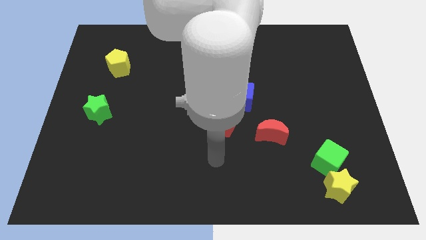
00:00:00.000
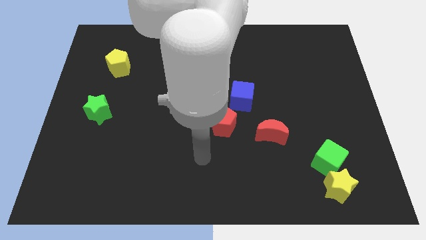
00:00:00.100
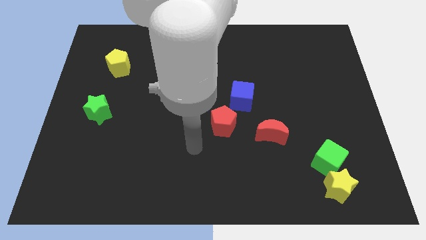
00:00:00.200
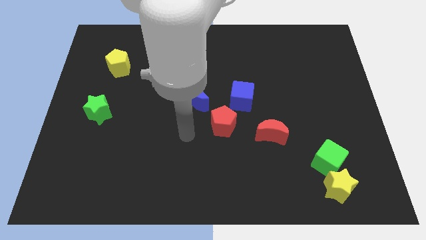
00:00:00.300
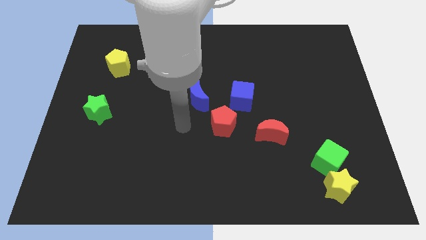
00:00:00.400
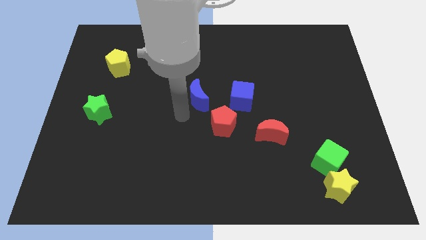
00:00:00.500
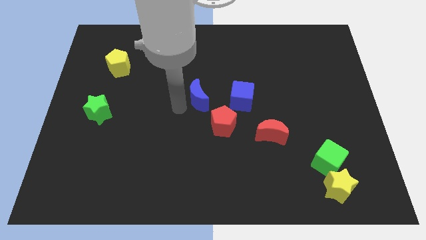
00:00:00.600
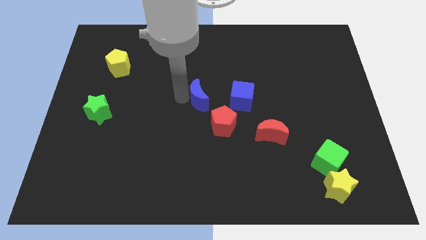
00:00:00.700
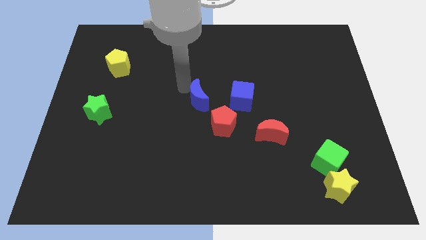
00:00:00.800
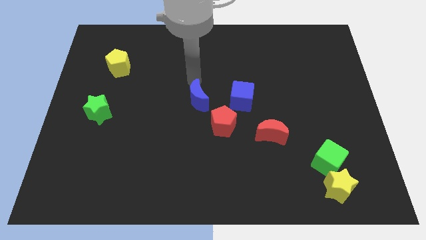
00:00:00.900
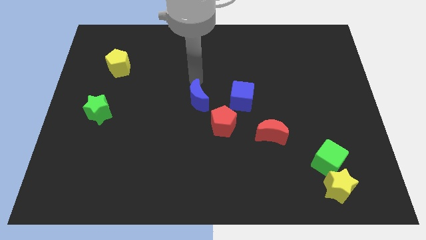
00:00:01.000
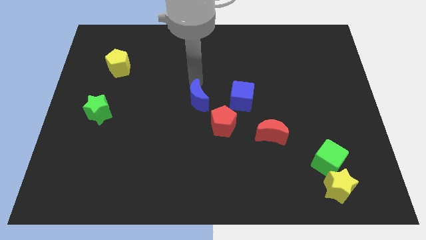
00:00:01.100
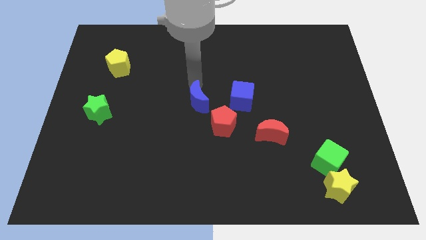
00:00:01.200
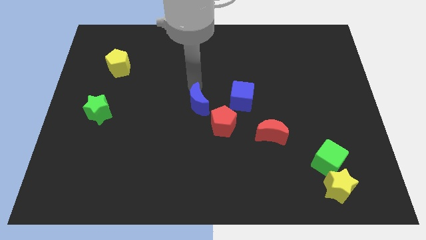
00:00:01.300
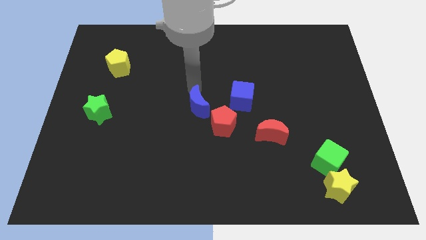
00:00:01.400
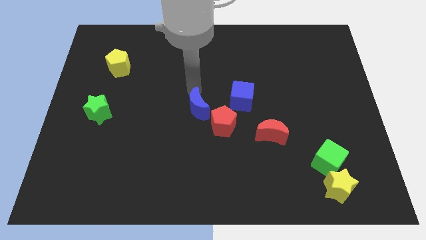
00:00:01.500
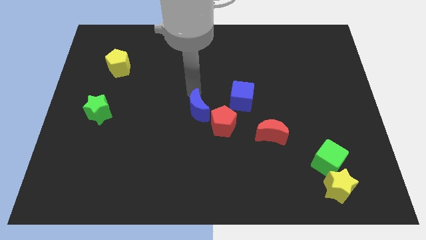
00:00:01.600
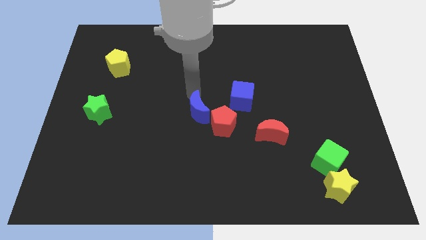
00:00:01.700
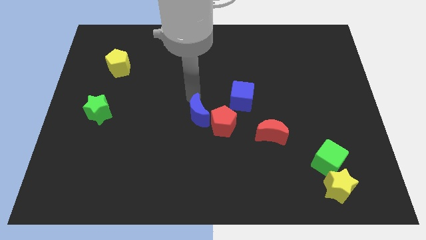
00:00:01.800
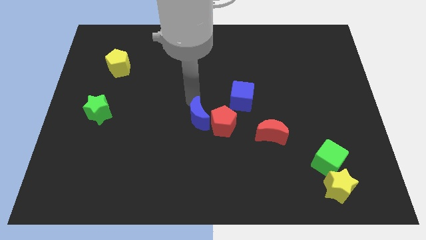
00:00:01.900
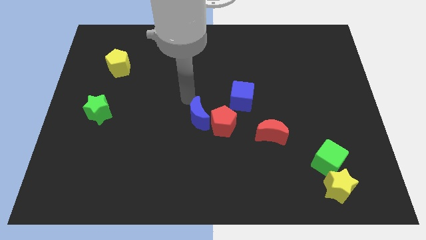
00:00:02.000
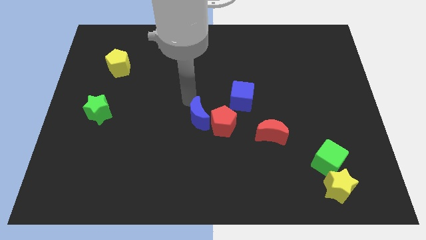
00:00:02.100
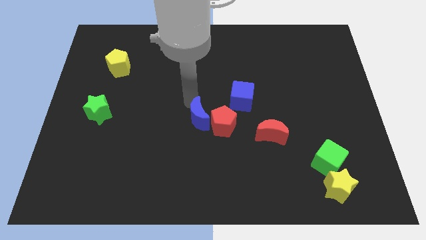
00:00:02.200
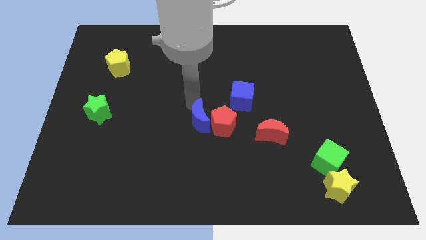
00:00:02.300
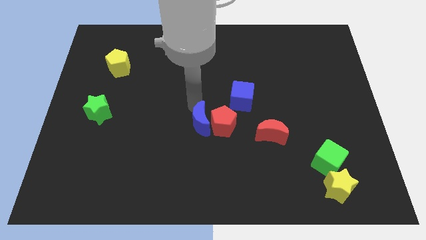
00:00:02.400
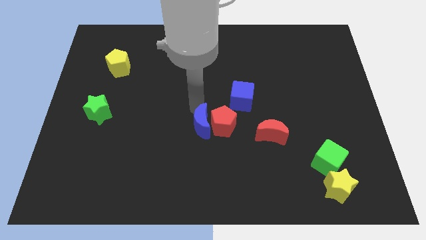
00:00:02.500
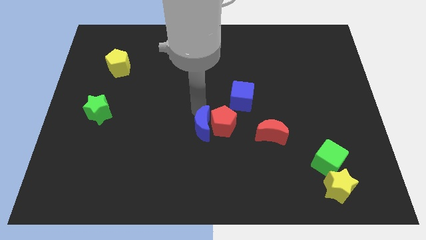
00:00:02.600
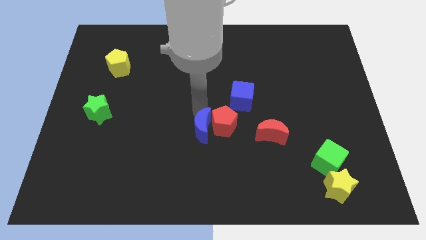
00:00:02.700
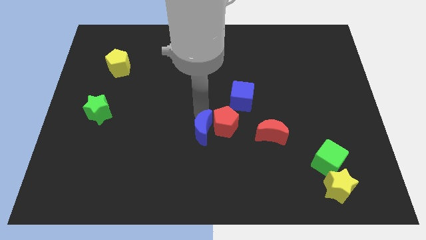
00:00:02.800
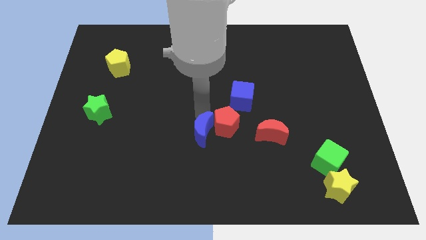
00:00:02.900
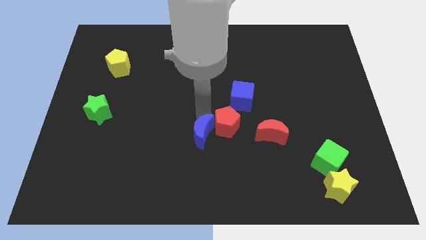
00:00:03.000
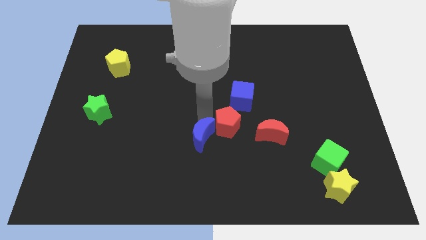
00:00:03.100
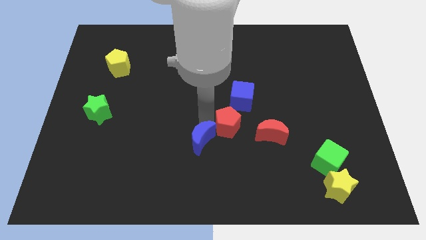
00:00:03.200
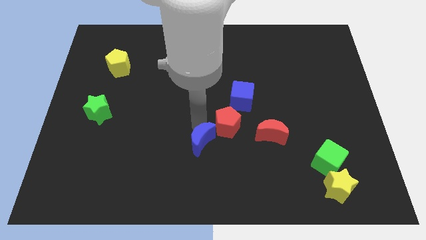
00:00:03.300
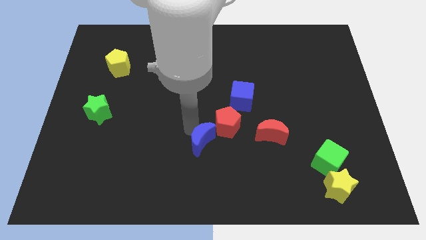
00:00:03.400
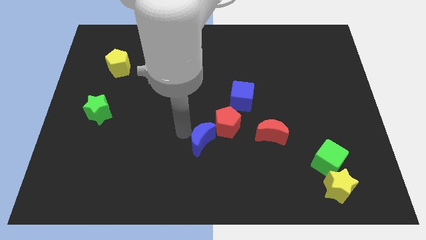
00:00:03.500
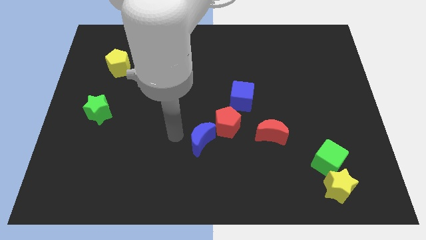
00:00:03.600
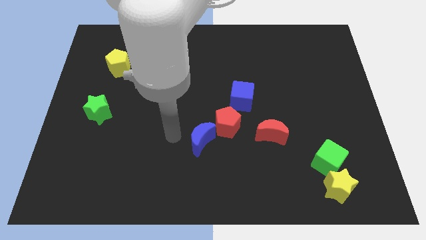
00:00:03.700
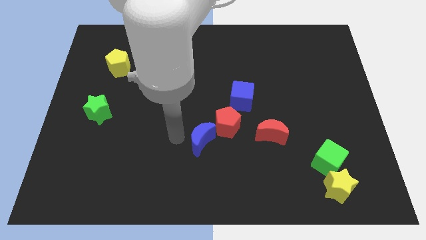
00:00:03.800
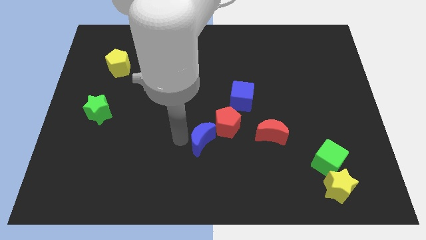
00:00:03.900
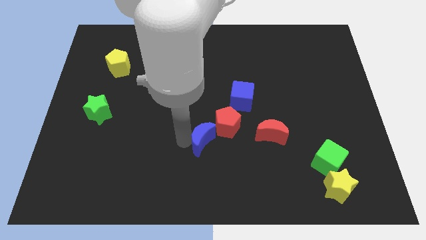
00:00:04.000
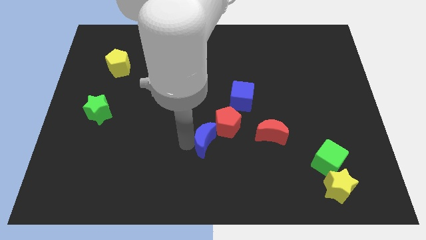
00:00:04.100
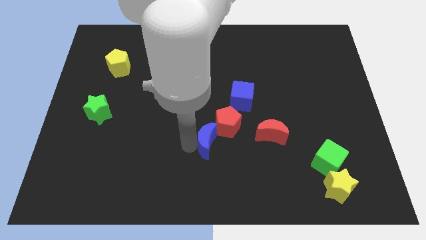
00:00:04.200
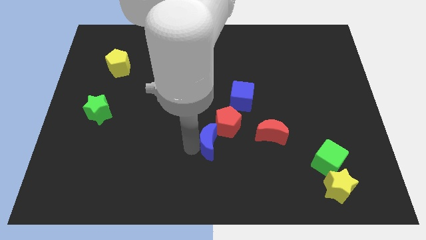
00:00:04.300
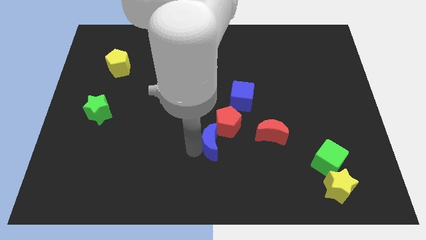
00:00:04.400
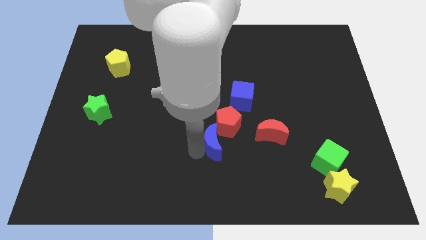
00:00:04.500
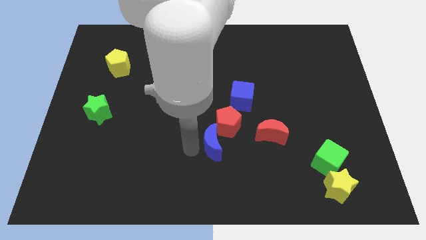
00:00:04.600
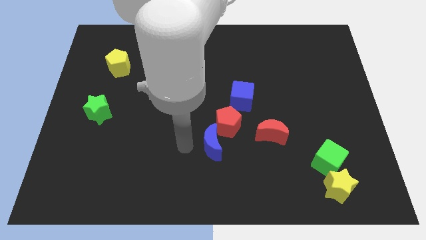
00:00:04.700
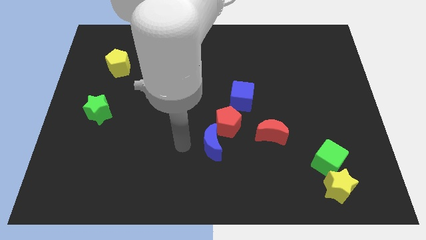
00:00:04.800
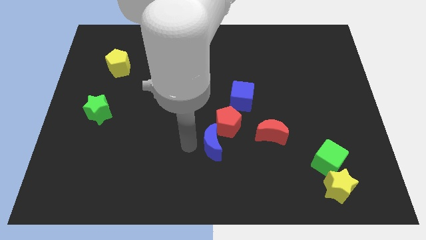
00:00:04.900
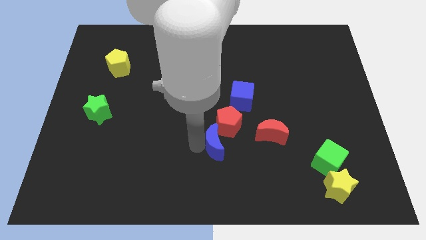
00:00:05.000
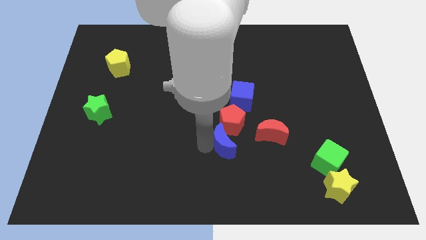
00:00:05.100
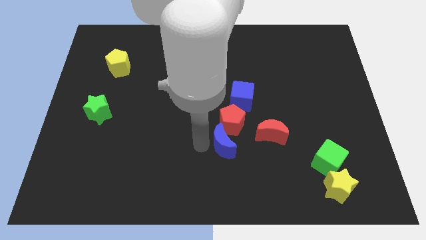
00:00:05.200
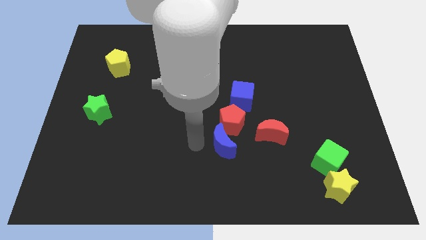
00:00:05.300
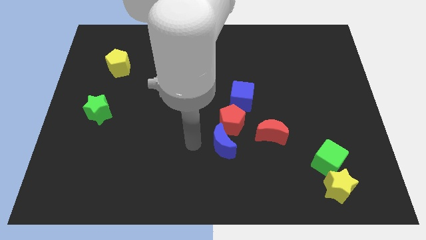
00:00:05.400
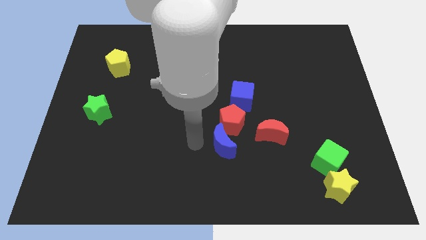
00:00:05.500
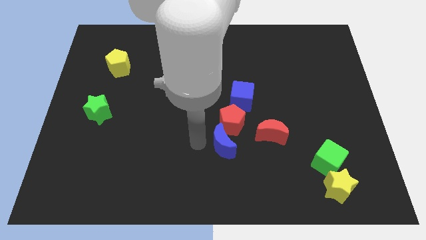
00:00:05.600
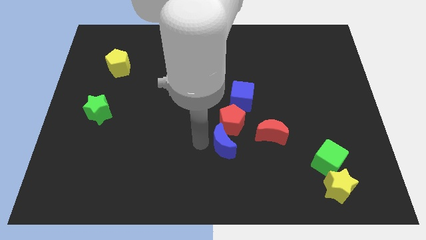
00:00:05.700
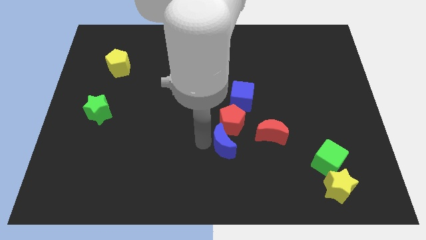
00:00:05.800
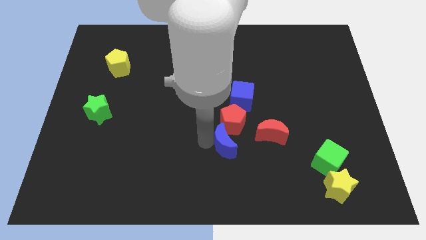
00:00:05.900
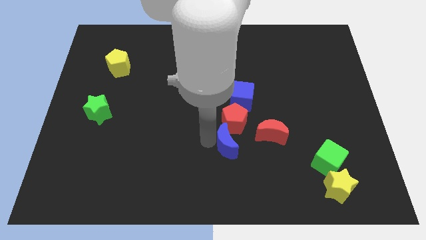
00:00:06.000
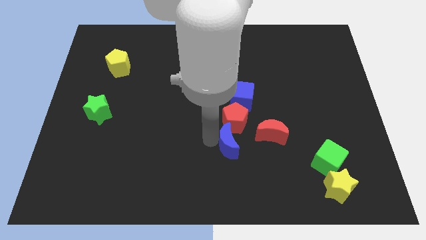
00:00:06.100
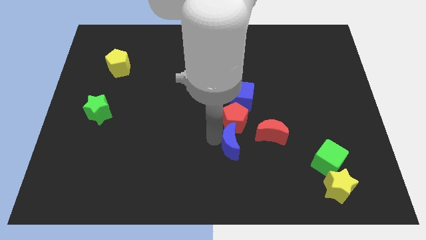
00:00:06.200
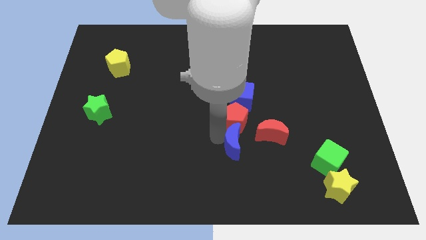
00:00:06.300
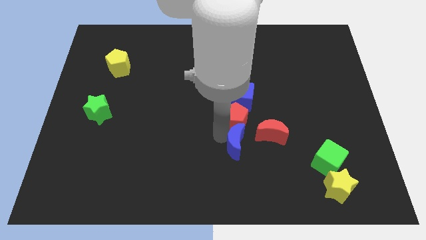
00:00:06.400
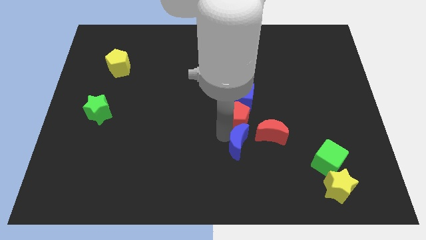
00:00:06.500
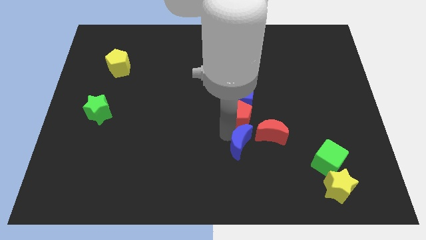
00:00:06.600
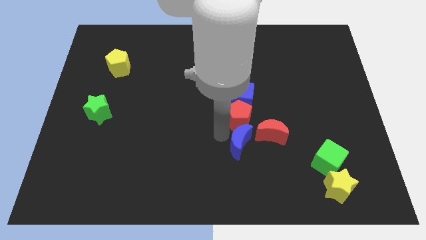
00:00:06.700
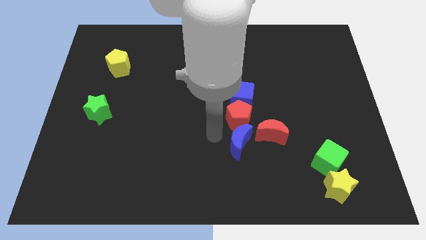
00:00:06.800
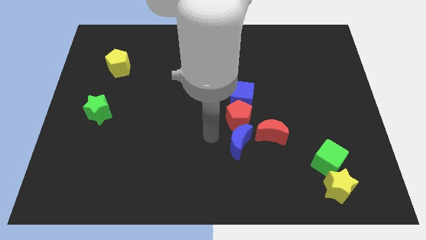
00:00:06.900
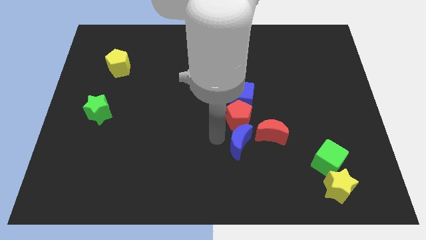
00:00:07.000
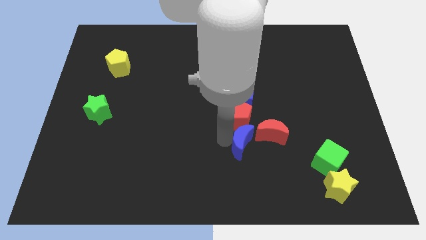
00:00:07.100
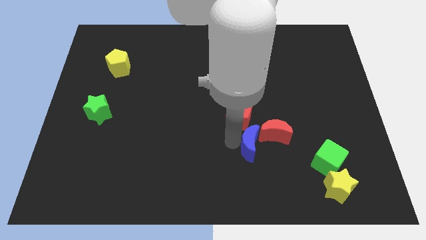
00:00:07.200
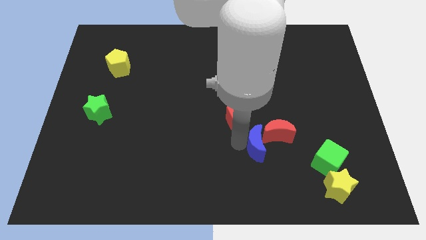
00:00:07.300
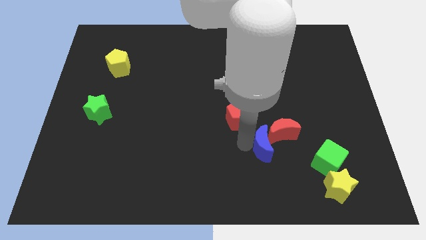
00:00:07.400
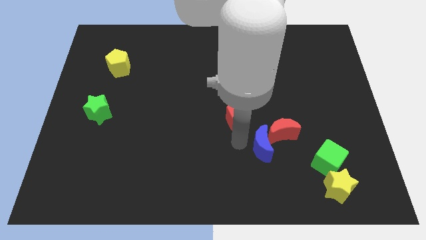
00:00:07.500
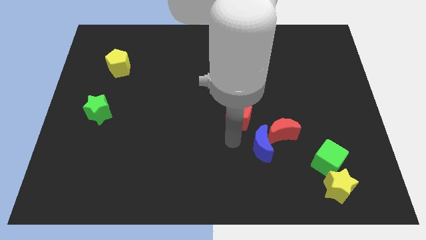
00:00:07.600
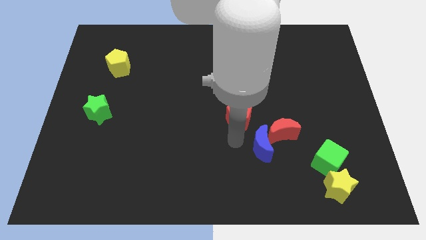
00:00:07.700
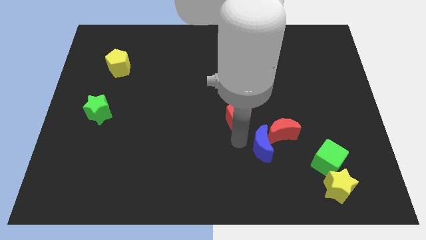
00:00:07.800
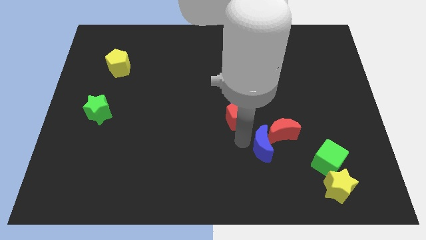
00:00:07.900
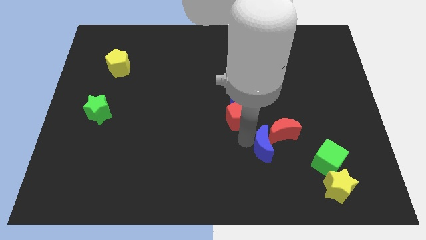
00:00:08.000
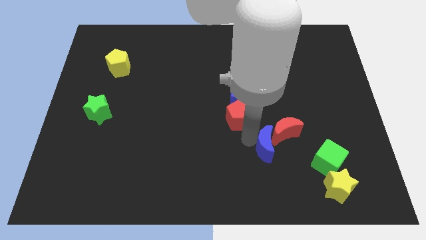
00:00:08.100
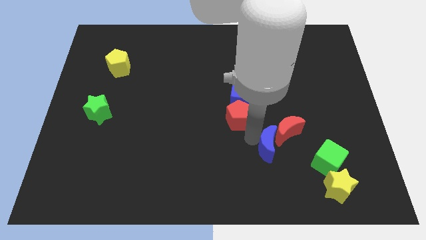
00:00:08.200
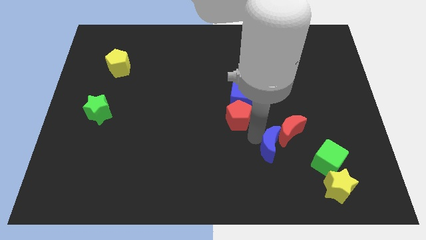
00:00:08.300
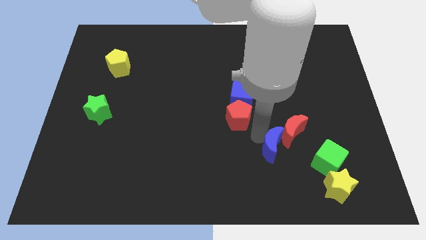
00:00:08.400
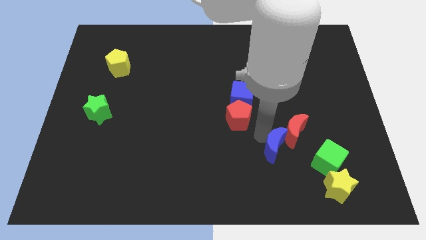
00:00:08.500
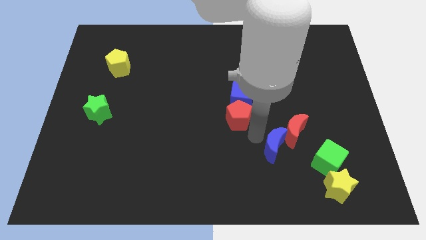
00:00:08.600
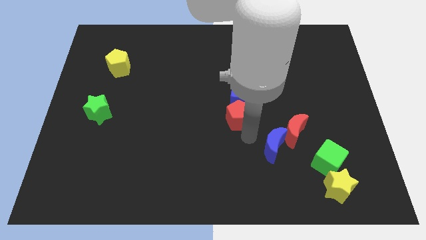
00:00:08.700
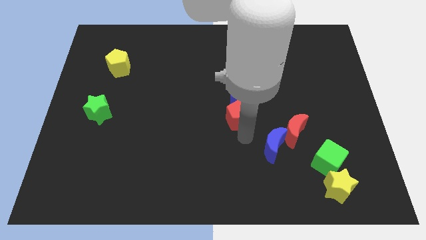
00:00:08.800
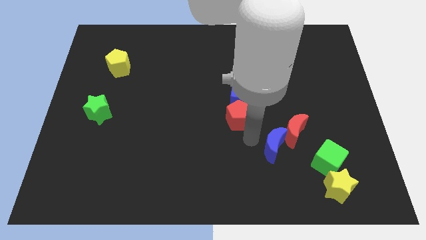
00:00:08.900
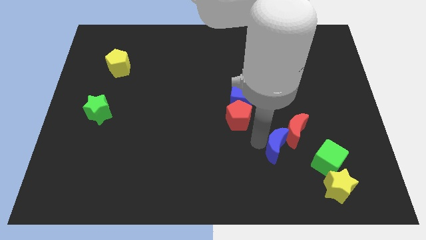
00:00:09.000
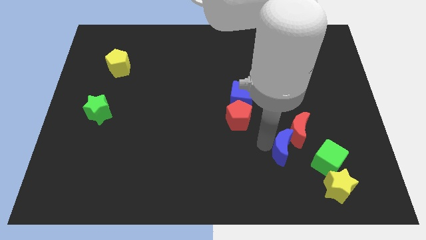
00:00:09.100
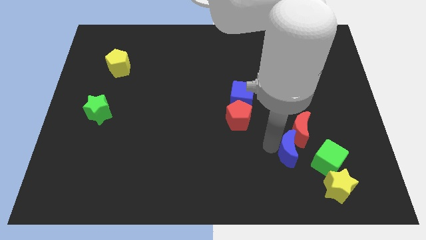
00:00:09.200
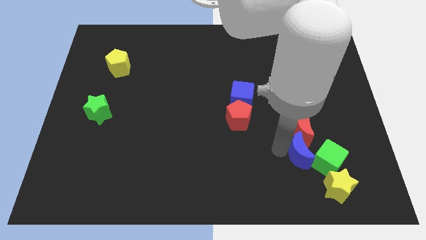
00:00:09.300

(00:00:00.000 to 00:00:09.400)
push the blue moon next to the green cube
